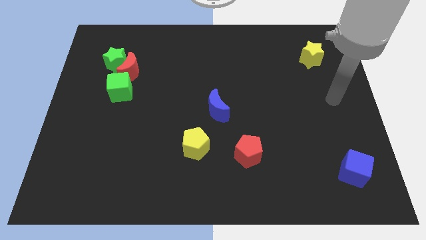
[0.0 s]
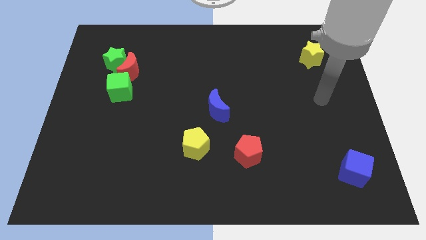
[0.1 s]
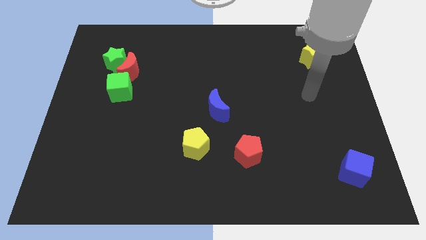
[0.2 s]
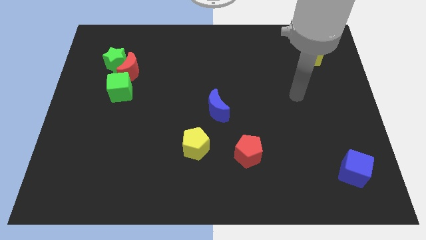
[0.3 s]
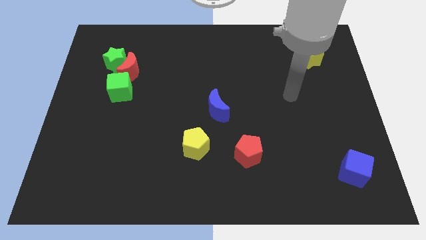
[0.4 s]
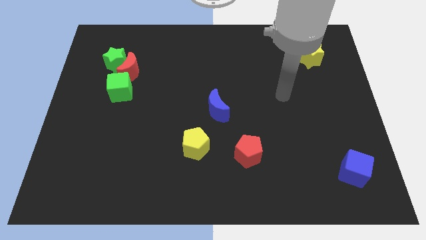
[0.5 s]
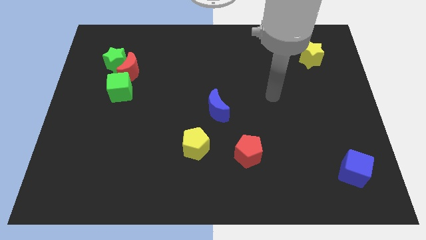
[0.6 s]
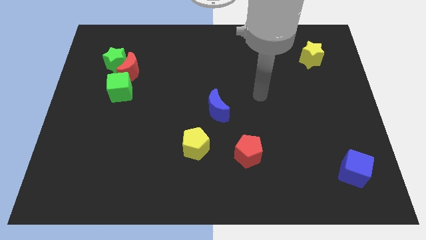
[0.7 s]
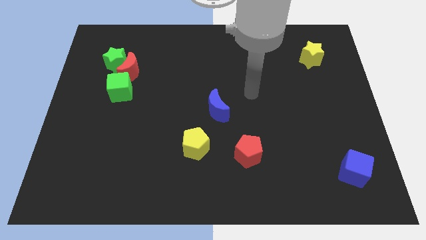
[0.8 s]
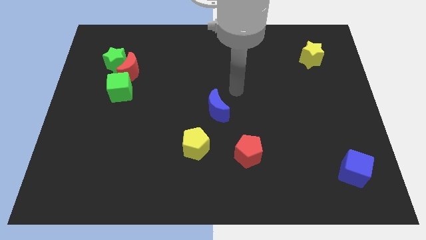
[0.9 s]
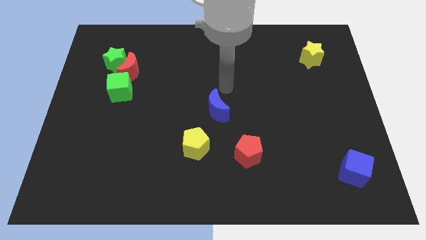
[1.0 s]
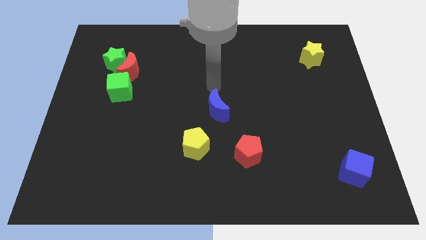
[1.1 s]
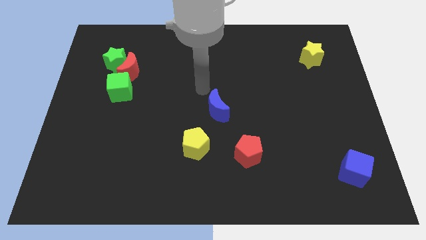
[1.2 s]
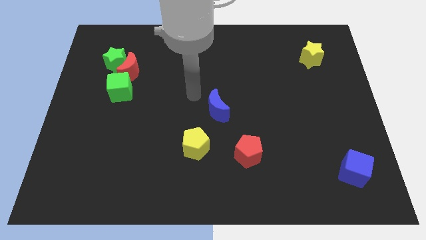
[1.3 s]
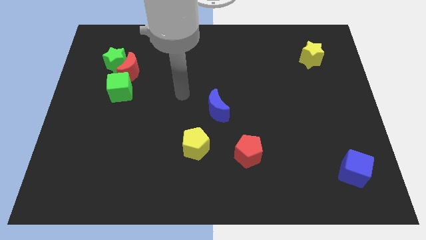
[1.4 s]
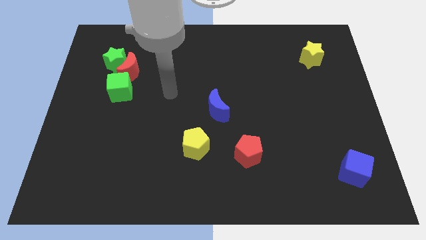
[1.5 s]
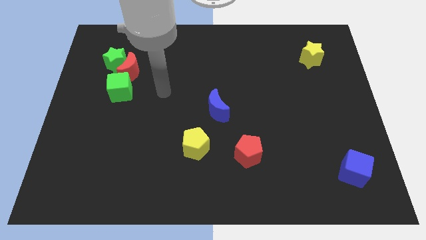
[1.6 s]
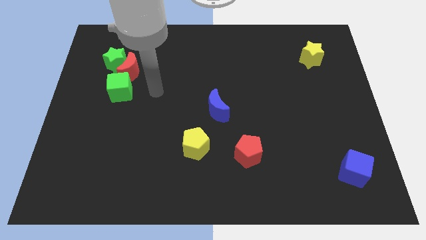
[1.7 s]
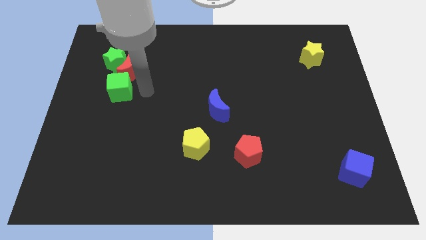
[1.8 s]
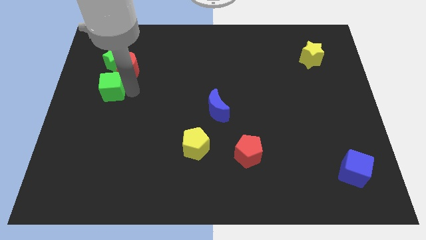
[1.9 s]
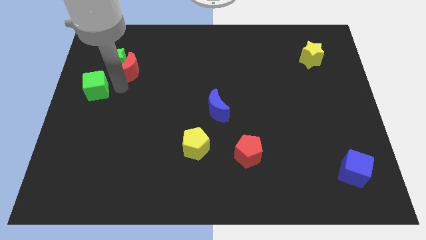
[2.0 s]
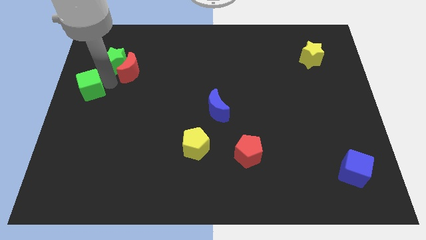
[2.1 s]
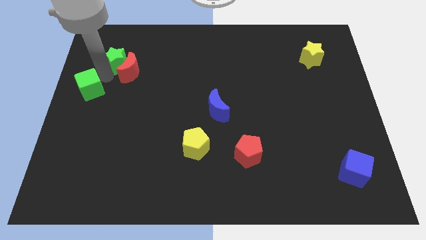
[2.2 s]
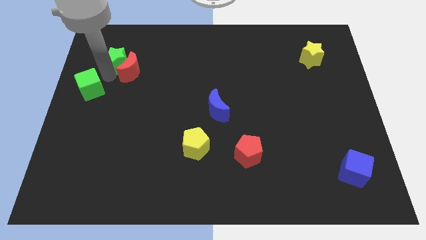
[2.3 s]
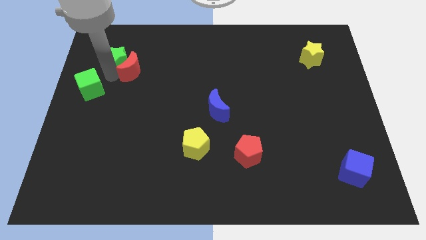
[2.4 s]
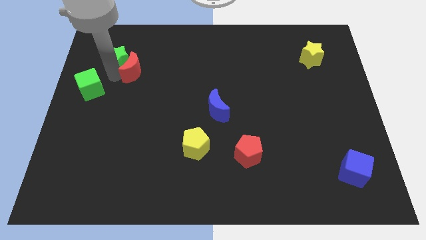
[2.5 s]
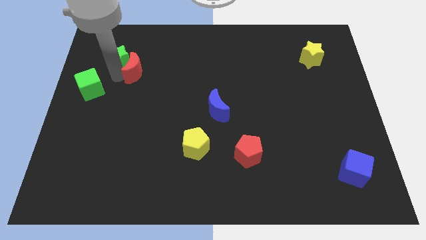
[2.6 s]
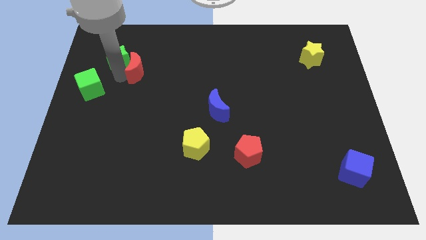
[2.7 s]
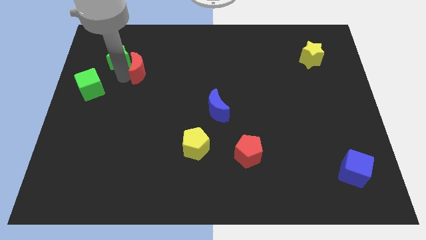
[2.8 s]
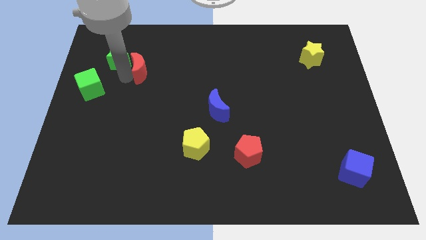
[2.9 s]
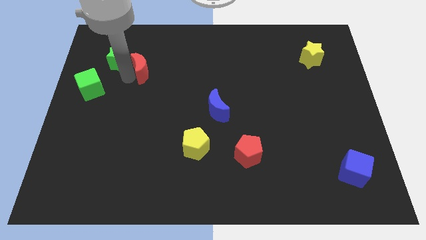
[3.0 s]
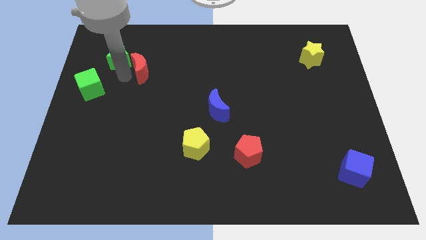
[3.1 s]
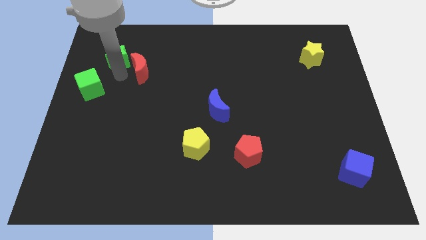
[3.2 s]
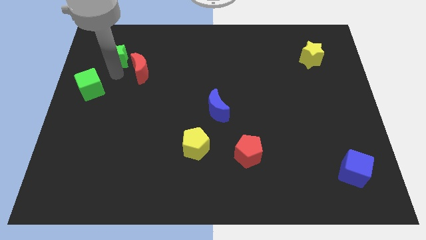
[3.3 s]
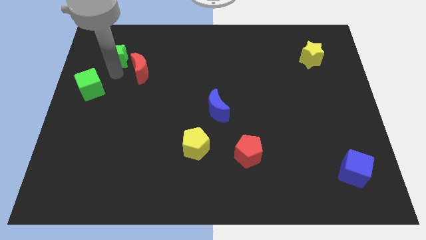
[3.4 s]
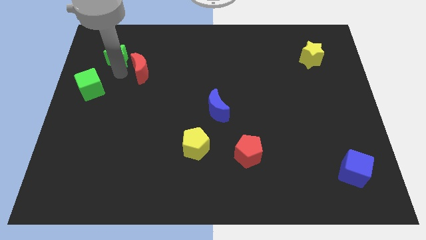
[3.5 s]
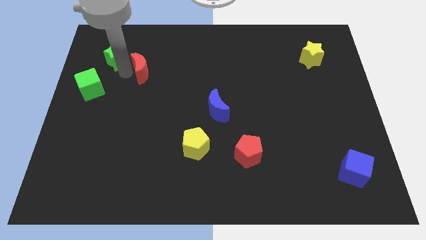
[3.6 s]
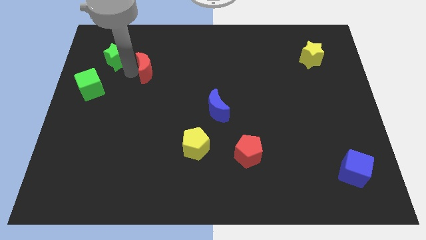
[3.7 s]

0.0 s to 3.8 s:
move the red moon away from the green star and green cube

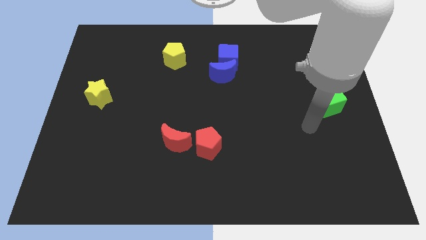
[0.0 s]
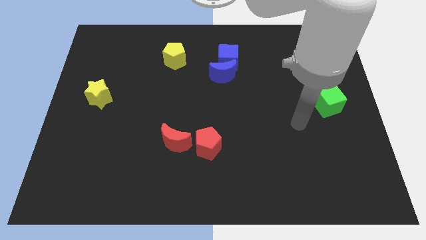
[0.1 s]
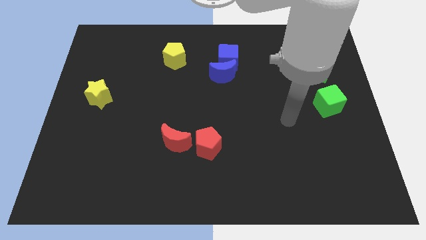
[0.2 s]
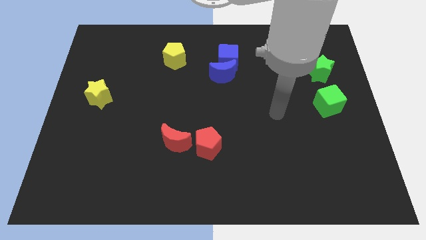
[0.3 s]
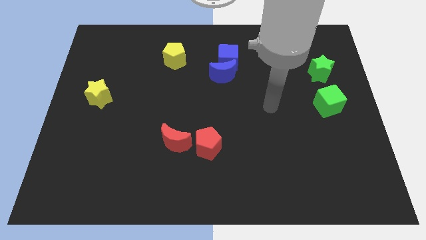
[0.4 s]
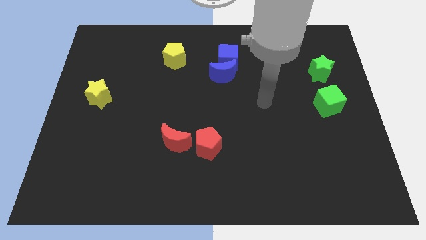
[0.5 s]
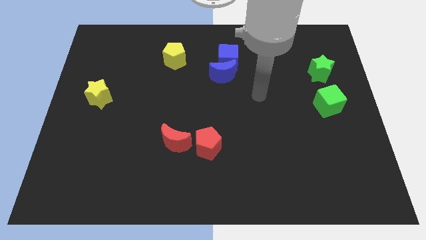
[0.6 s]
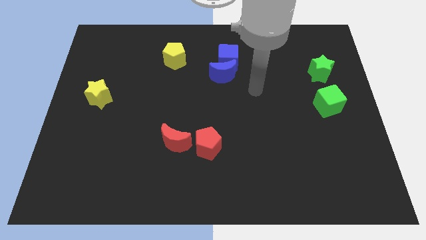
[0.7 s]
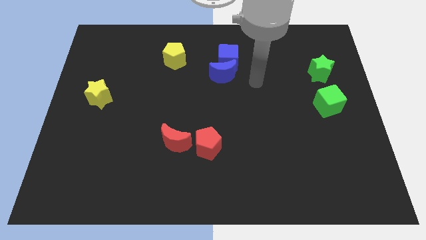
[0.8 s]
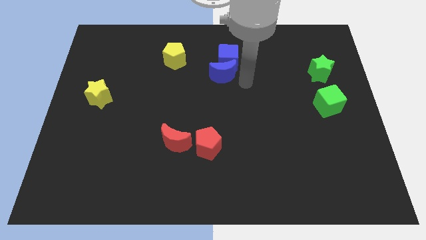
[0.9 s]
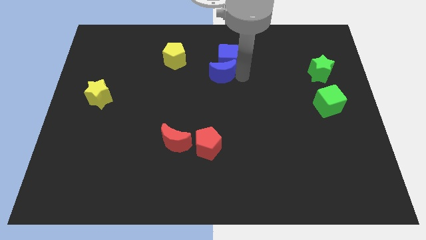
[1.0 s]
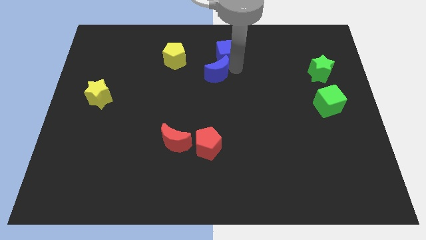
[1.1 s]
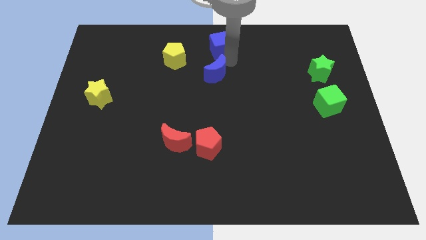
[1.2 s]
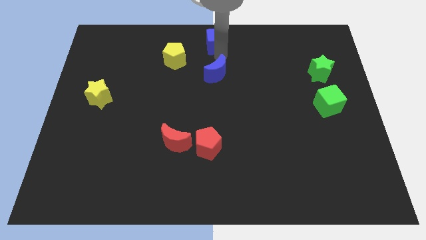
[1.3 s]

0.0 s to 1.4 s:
move the blue moon away from the blue cube

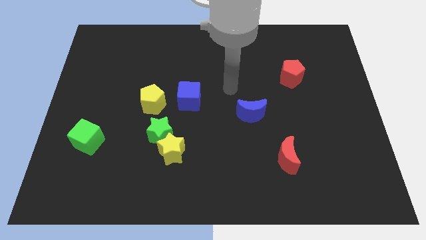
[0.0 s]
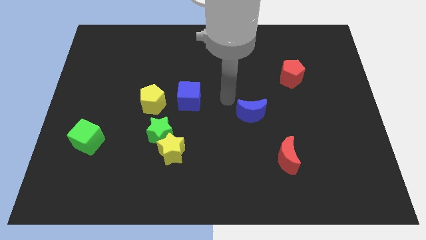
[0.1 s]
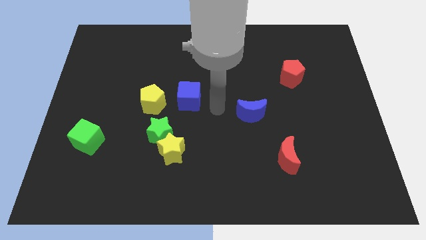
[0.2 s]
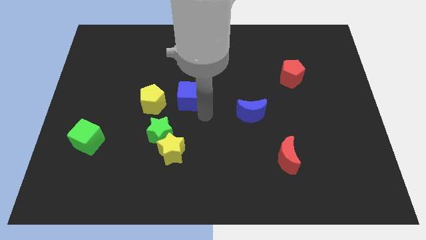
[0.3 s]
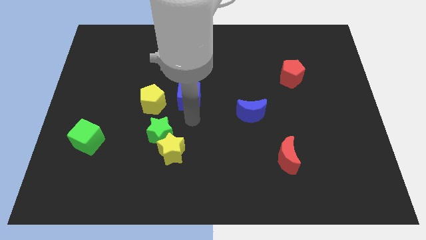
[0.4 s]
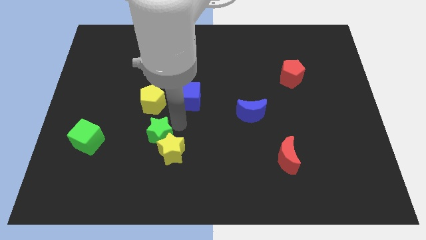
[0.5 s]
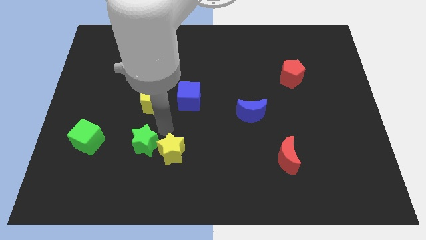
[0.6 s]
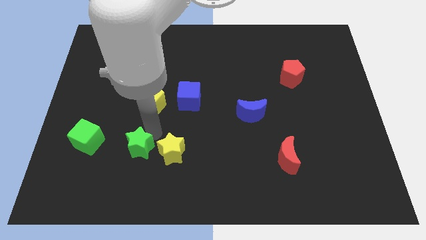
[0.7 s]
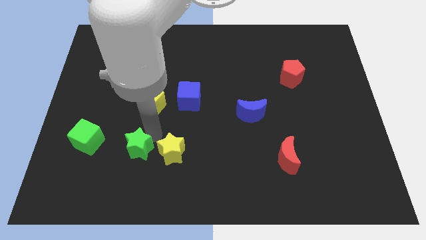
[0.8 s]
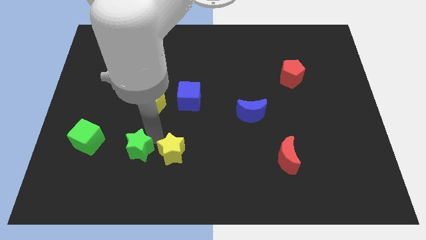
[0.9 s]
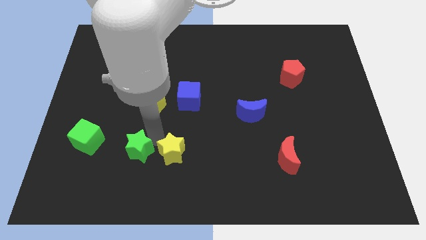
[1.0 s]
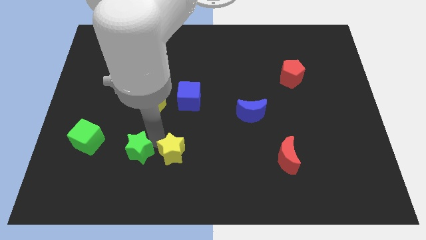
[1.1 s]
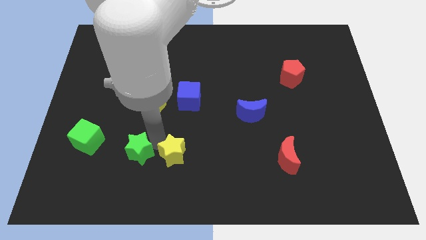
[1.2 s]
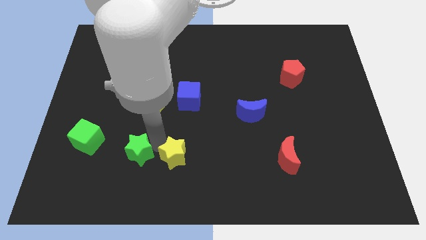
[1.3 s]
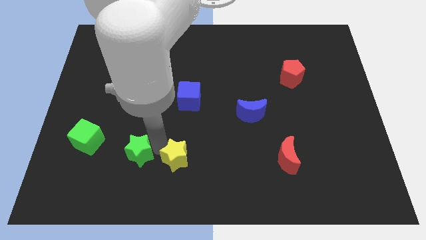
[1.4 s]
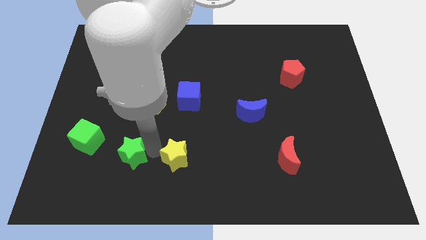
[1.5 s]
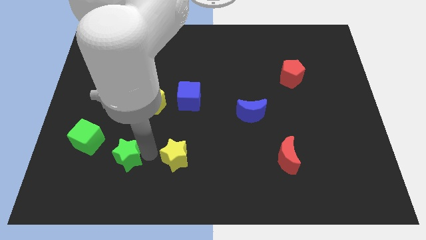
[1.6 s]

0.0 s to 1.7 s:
separate the yellow star from the green star

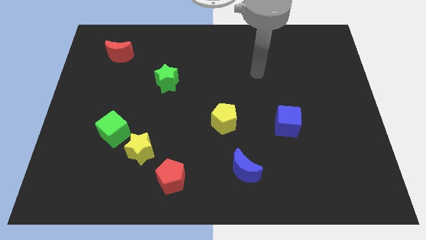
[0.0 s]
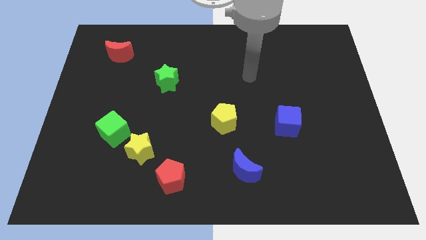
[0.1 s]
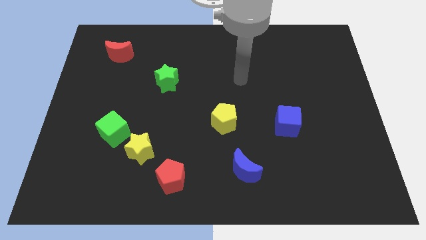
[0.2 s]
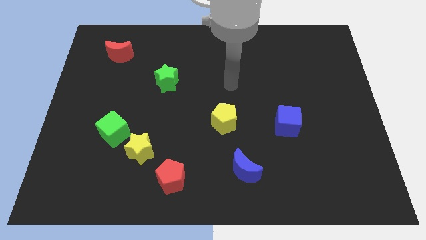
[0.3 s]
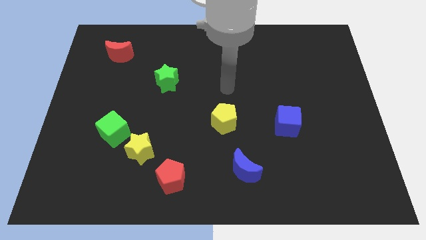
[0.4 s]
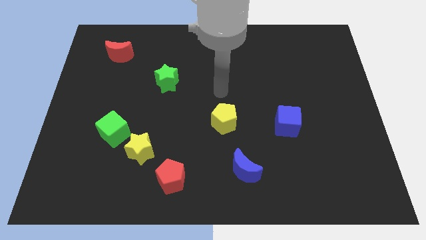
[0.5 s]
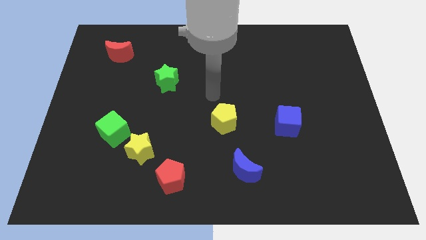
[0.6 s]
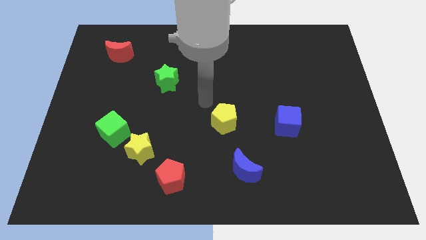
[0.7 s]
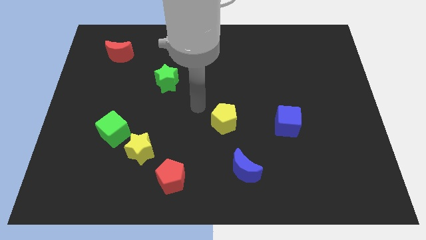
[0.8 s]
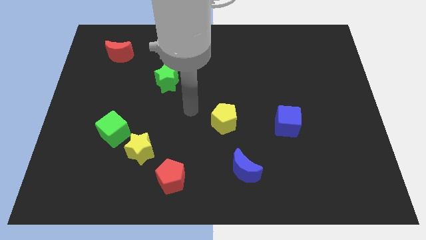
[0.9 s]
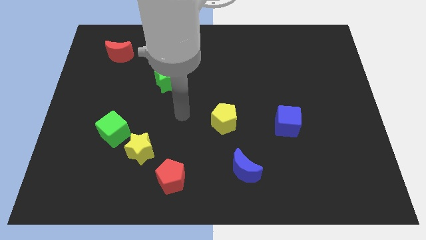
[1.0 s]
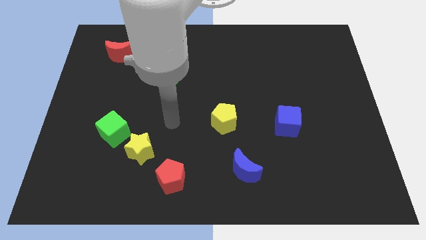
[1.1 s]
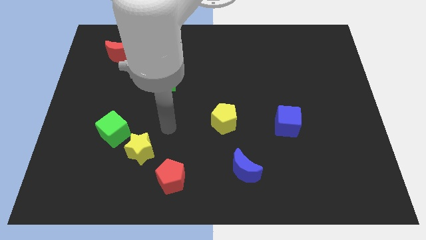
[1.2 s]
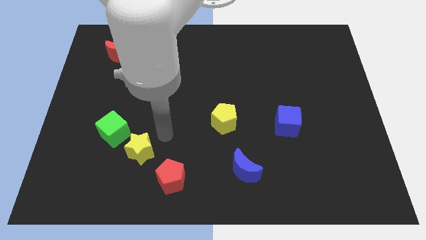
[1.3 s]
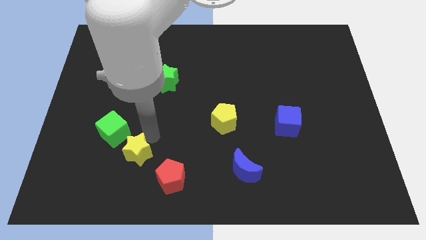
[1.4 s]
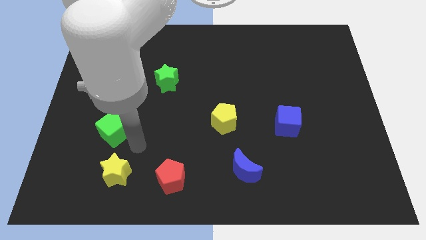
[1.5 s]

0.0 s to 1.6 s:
separate the green cube from the yellow star

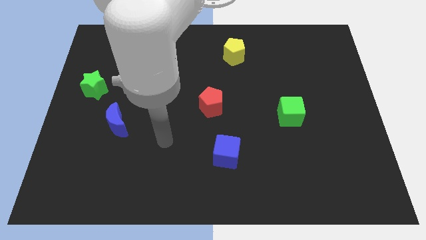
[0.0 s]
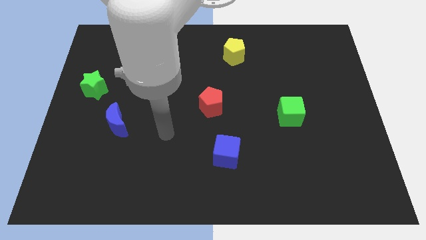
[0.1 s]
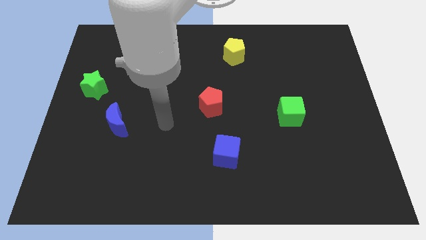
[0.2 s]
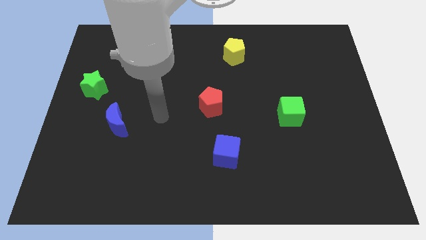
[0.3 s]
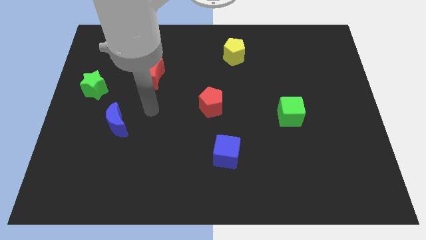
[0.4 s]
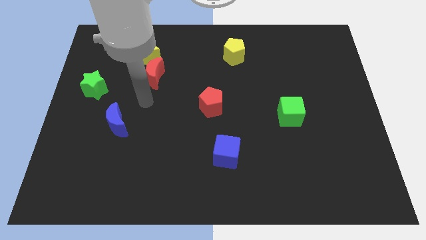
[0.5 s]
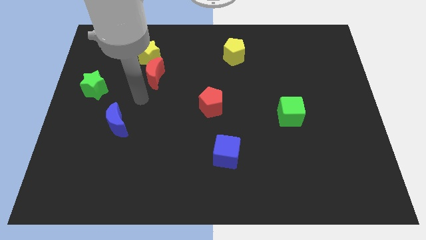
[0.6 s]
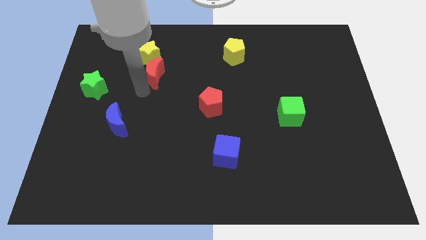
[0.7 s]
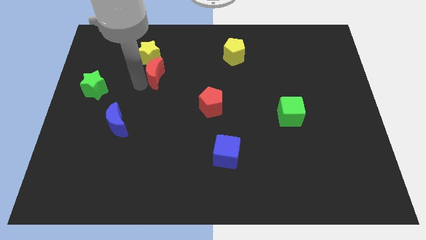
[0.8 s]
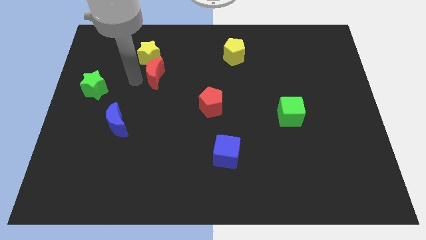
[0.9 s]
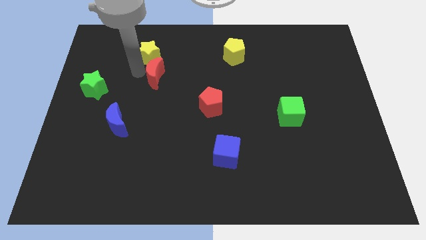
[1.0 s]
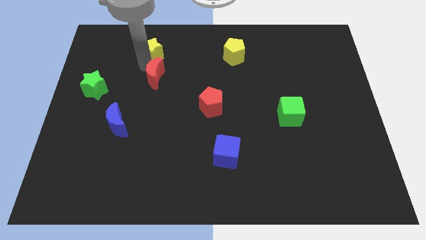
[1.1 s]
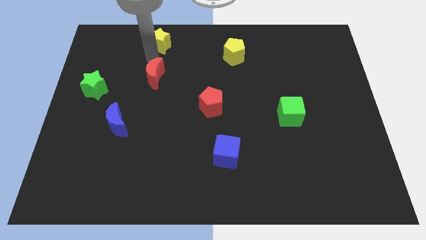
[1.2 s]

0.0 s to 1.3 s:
separate the red moon from the yellow star
